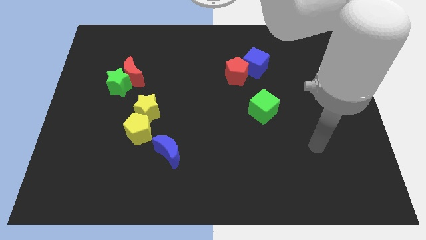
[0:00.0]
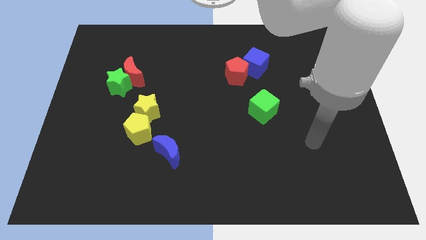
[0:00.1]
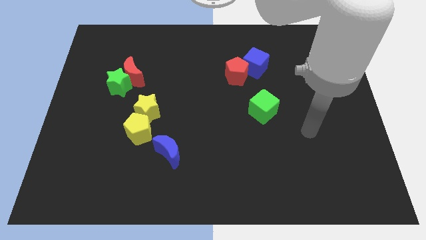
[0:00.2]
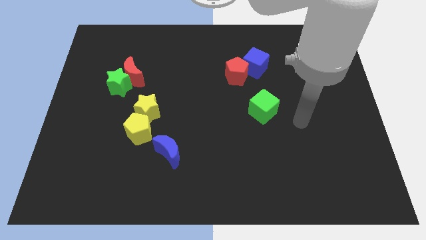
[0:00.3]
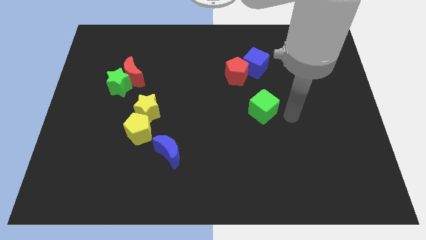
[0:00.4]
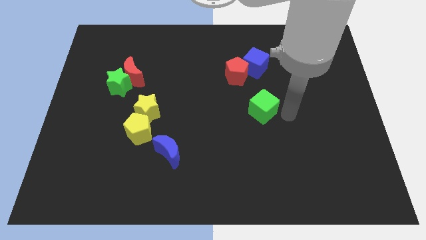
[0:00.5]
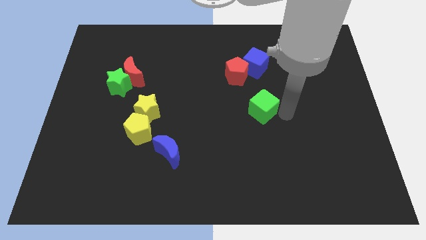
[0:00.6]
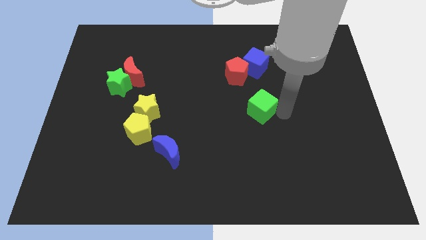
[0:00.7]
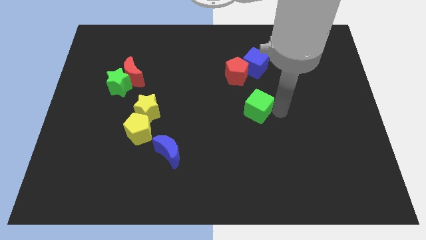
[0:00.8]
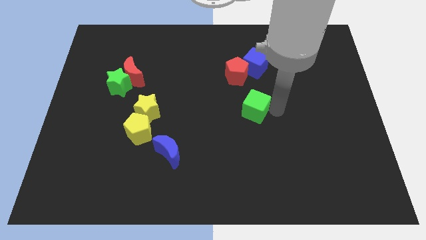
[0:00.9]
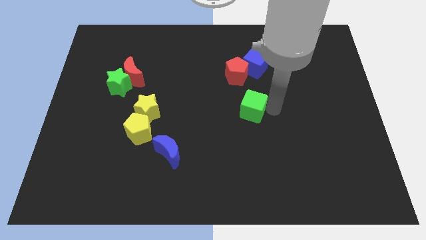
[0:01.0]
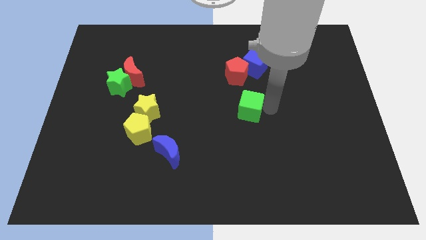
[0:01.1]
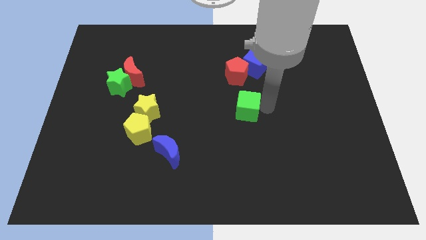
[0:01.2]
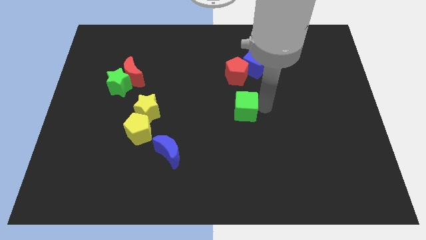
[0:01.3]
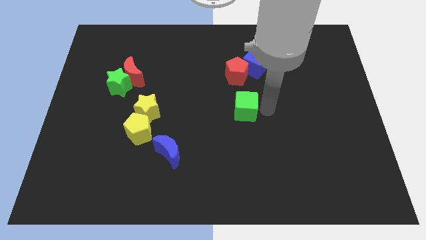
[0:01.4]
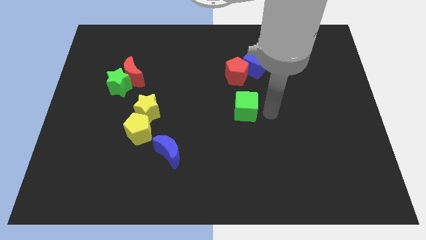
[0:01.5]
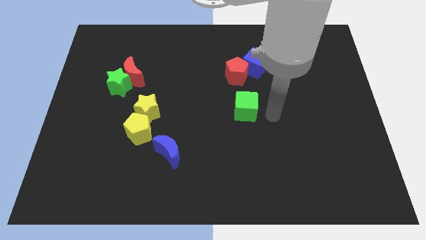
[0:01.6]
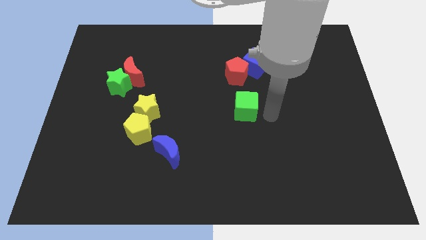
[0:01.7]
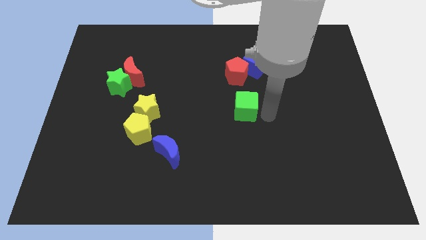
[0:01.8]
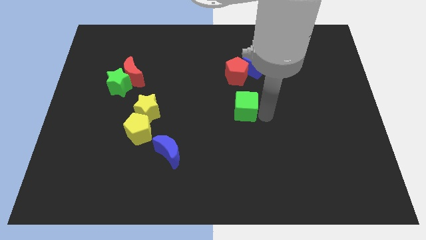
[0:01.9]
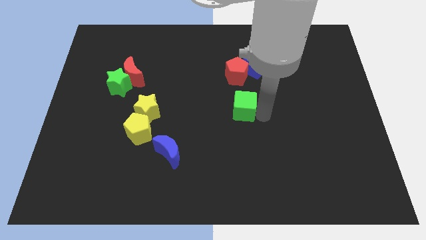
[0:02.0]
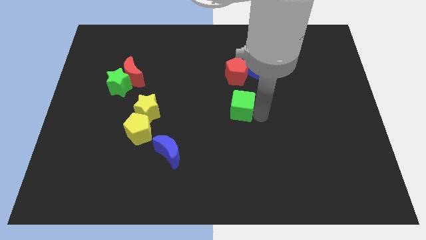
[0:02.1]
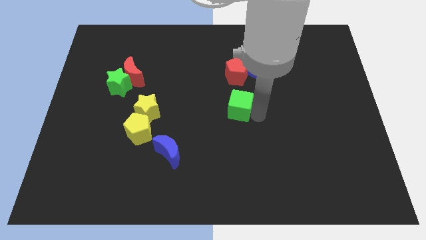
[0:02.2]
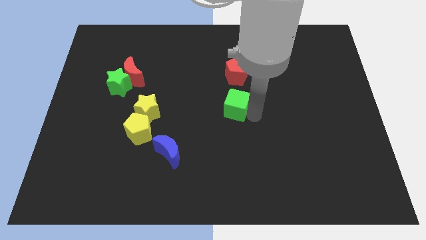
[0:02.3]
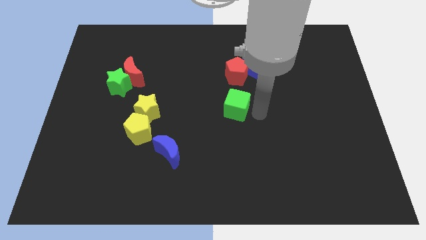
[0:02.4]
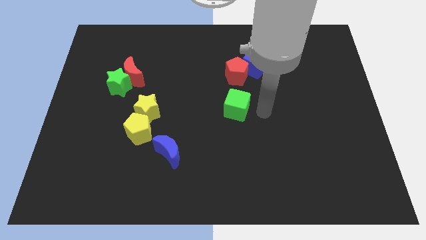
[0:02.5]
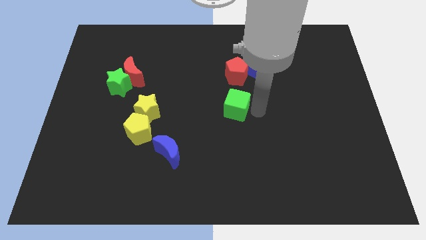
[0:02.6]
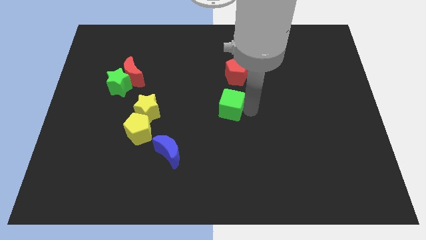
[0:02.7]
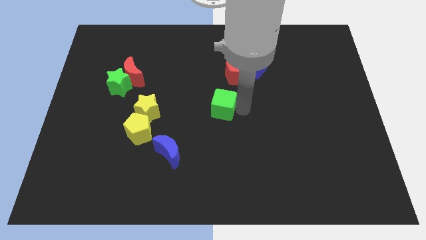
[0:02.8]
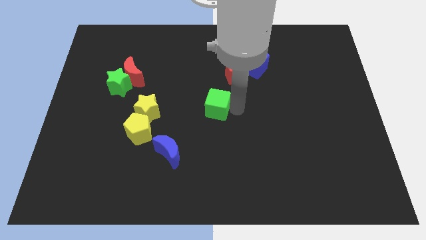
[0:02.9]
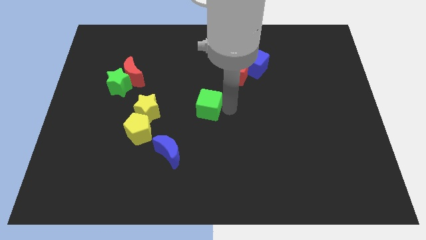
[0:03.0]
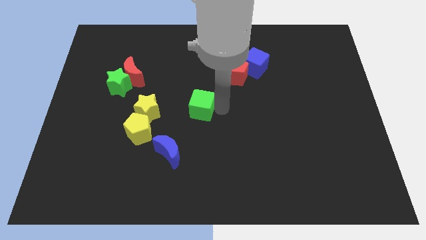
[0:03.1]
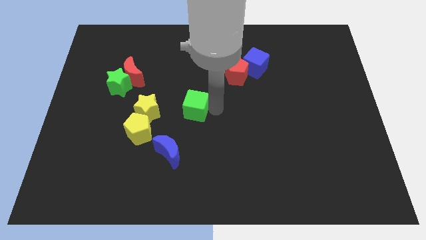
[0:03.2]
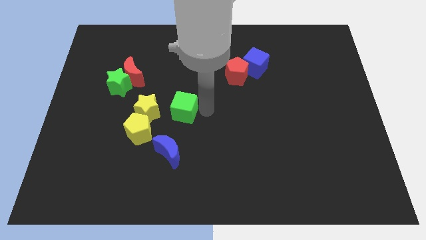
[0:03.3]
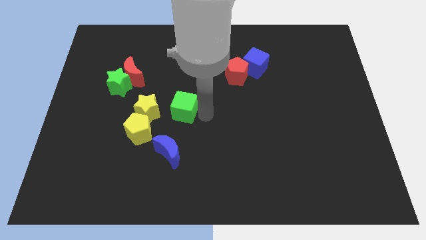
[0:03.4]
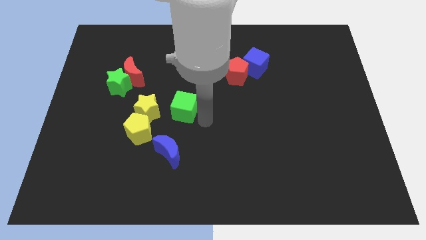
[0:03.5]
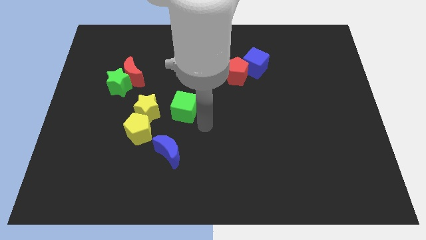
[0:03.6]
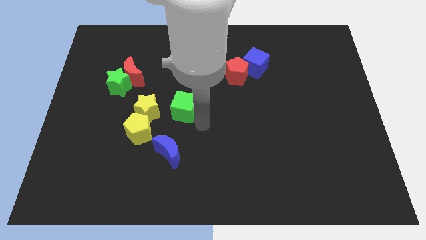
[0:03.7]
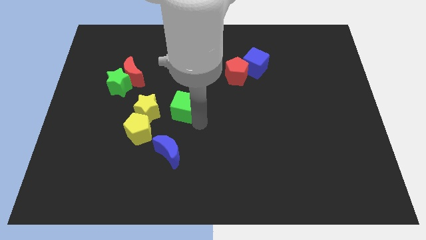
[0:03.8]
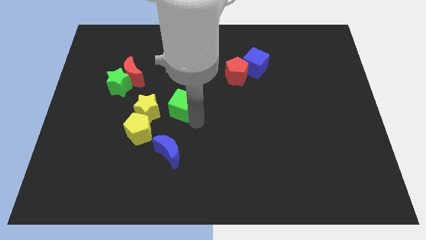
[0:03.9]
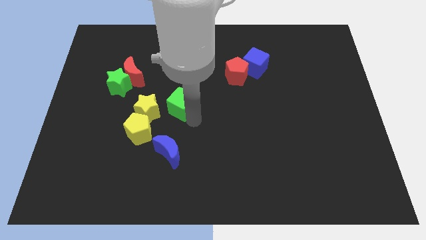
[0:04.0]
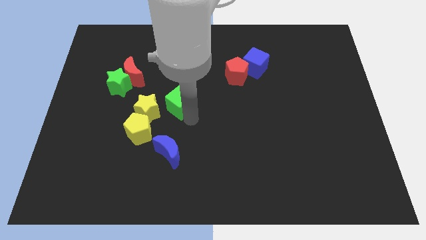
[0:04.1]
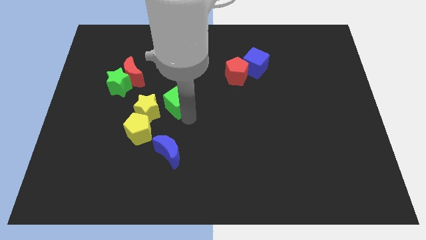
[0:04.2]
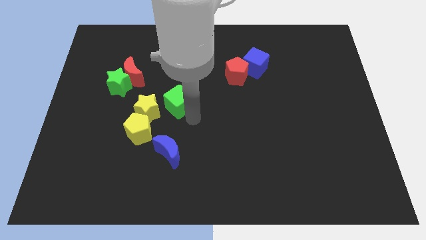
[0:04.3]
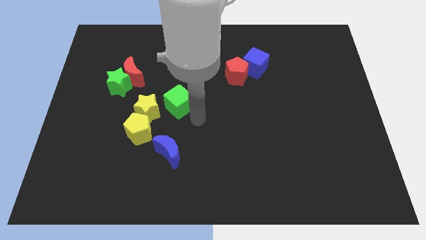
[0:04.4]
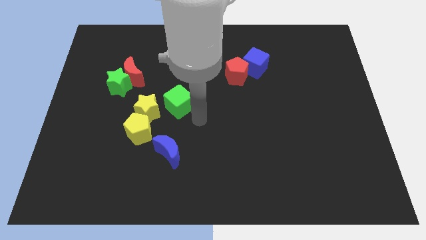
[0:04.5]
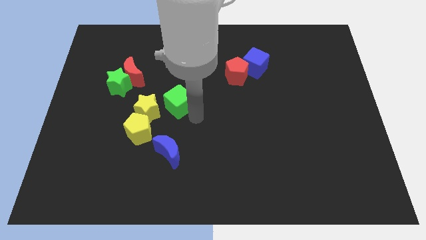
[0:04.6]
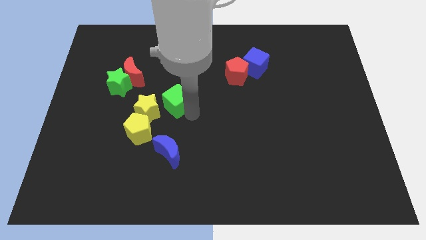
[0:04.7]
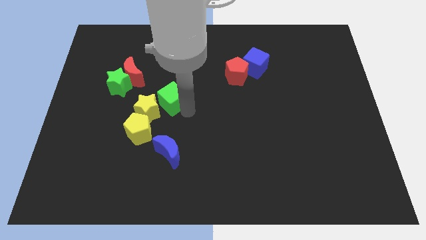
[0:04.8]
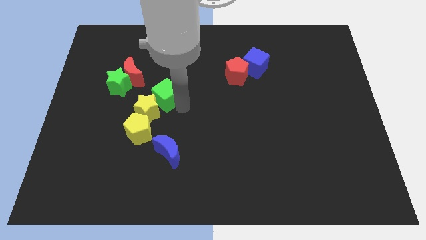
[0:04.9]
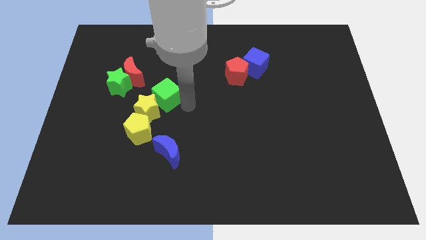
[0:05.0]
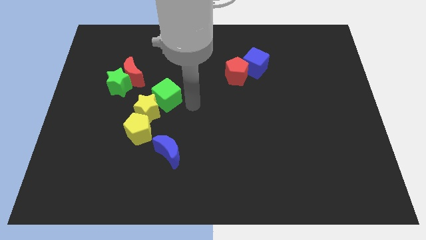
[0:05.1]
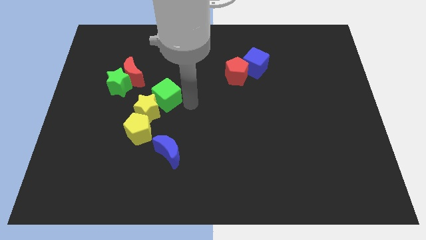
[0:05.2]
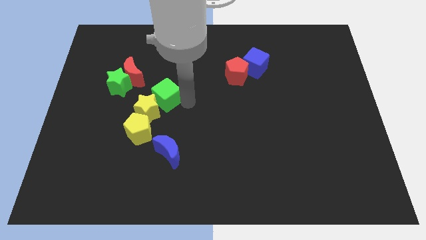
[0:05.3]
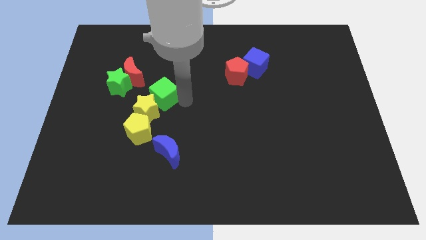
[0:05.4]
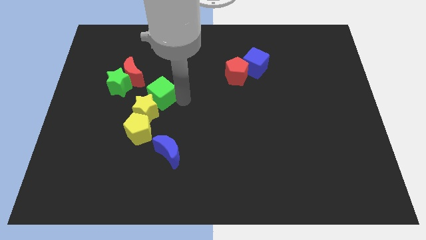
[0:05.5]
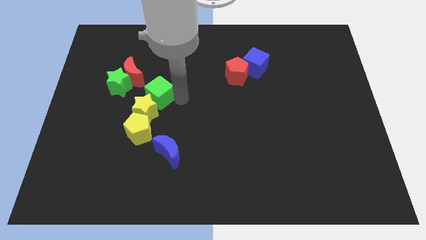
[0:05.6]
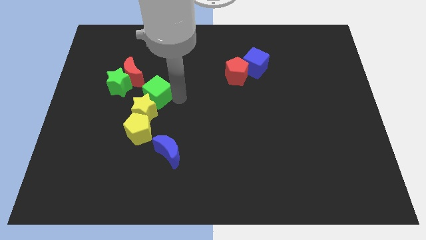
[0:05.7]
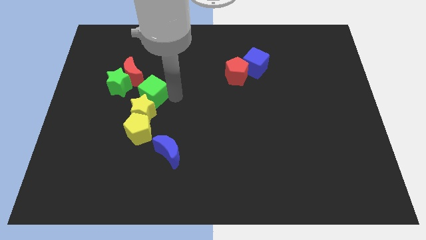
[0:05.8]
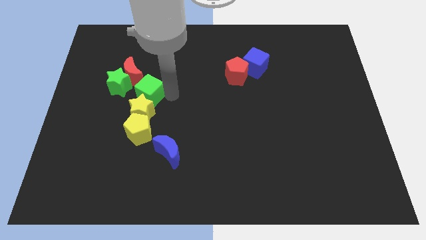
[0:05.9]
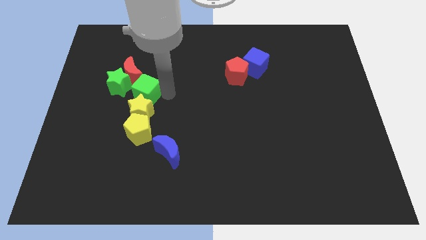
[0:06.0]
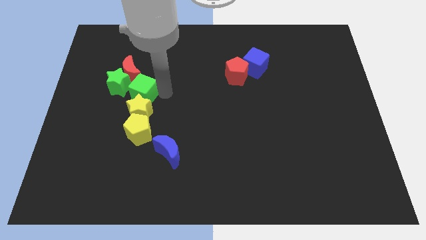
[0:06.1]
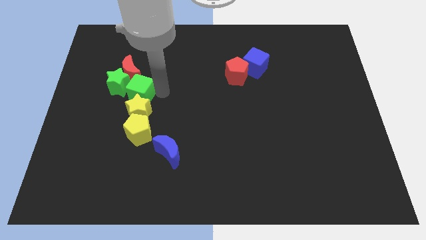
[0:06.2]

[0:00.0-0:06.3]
put the green cube towards the green star
